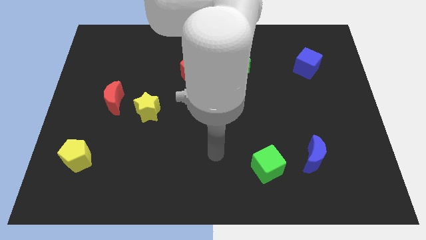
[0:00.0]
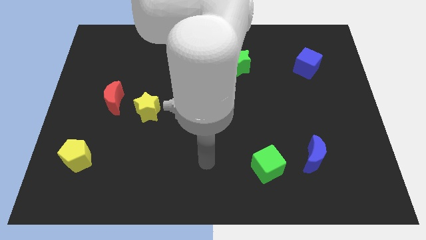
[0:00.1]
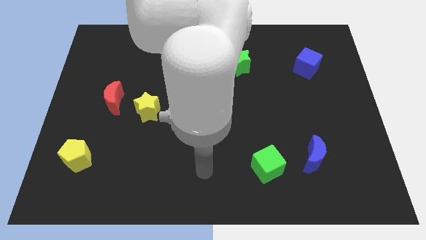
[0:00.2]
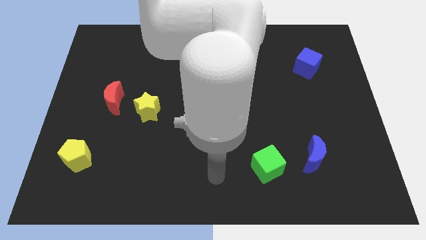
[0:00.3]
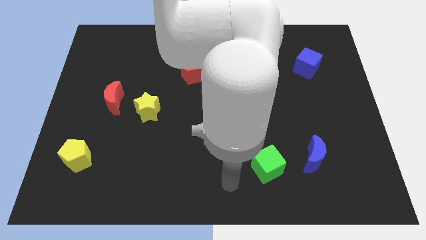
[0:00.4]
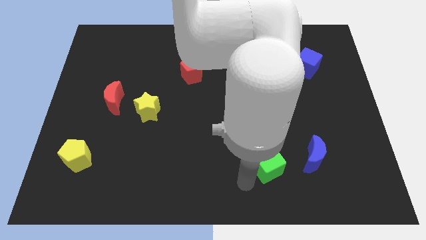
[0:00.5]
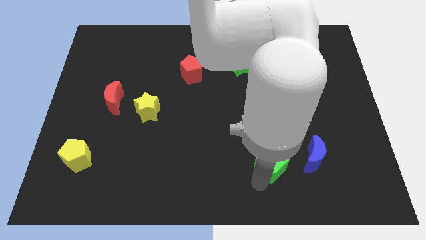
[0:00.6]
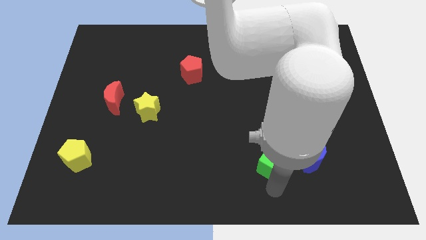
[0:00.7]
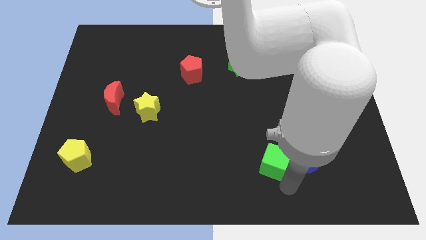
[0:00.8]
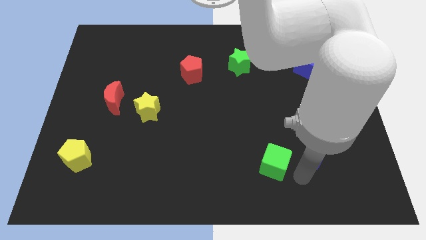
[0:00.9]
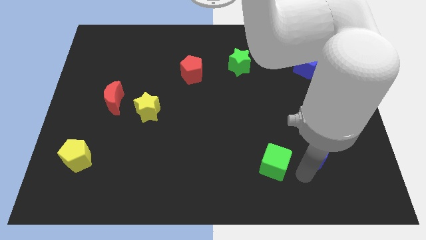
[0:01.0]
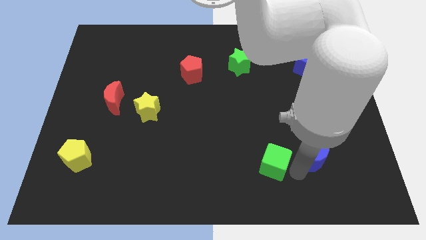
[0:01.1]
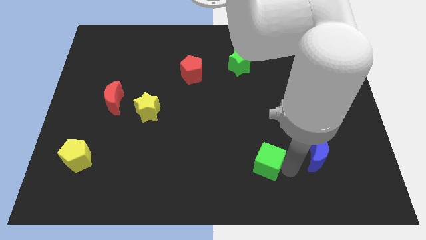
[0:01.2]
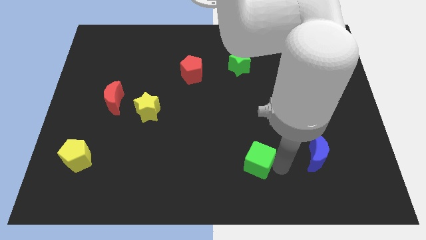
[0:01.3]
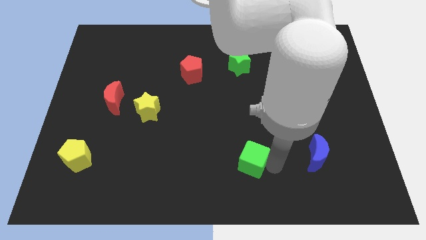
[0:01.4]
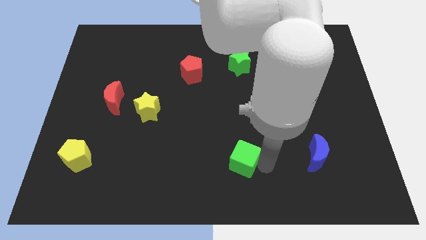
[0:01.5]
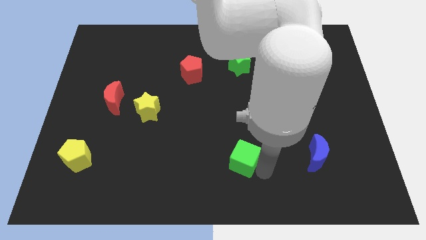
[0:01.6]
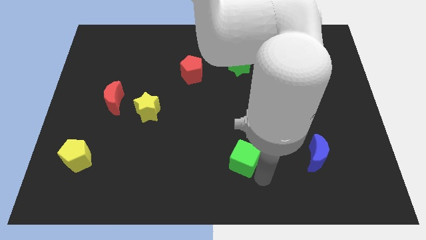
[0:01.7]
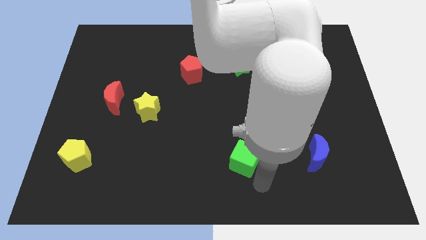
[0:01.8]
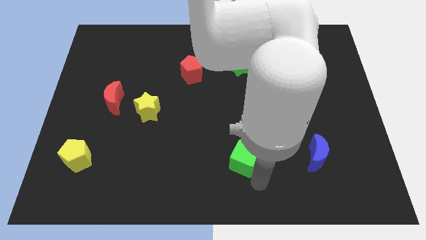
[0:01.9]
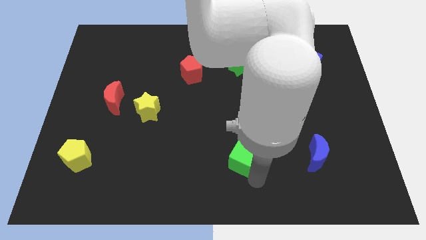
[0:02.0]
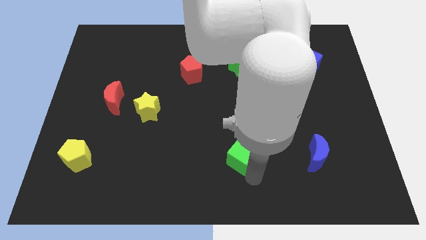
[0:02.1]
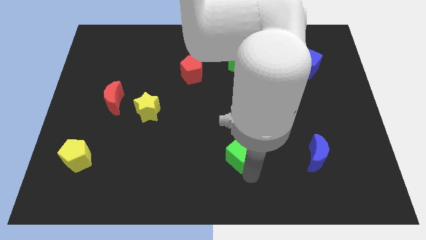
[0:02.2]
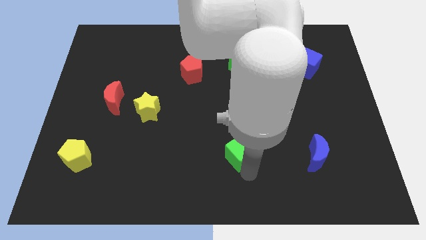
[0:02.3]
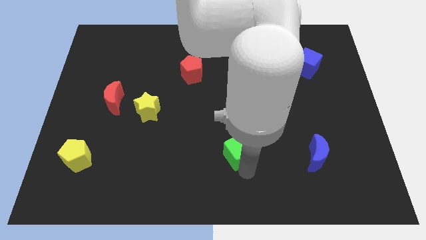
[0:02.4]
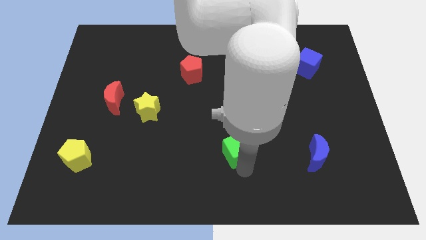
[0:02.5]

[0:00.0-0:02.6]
slide the green cube a little bit diagonally upwards and left

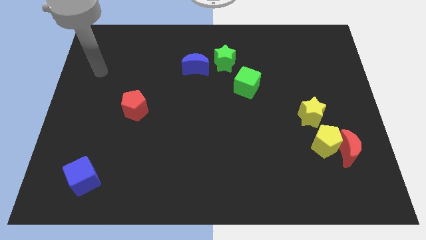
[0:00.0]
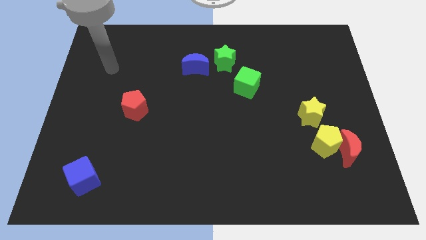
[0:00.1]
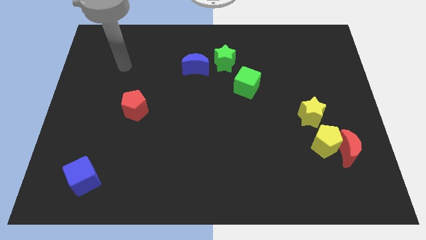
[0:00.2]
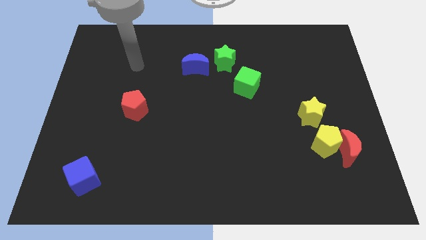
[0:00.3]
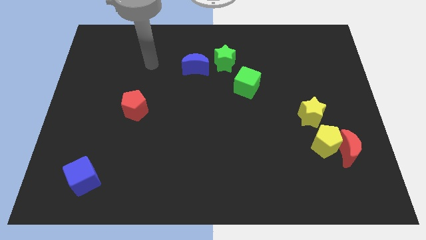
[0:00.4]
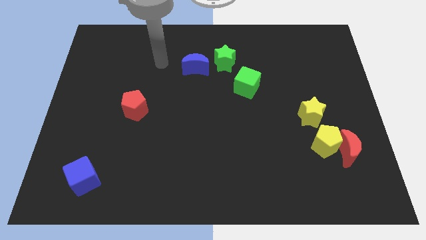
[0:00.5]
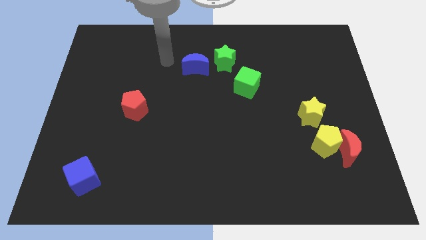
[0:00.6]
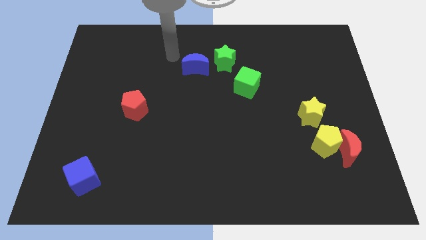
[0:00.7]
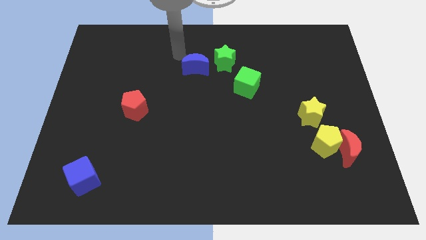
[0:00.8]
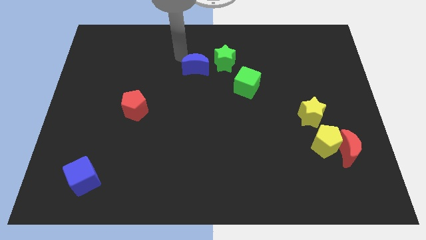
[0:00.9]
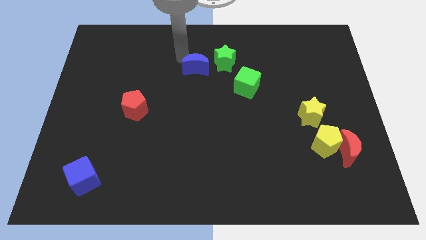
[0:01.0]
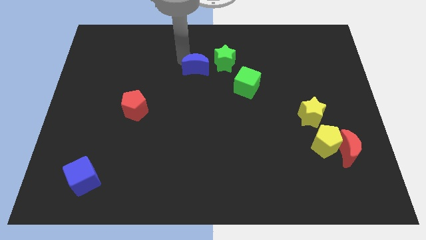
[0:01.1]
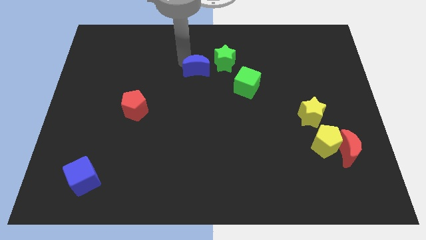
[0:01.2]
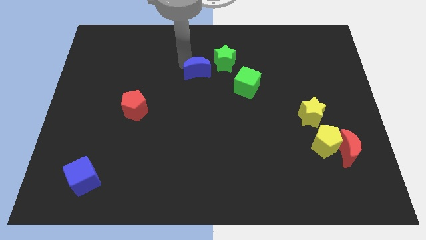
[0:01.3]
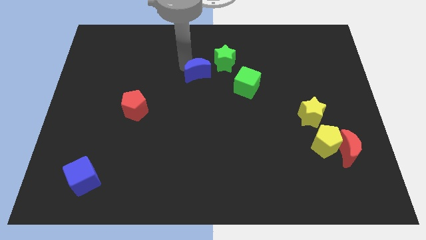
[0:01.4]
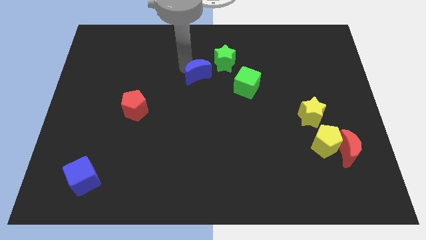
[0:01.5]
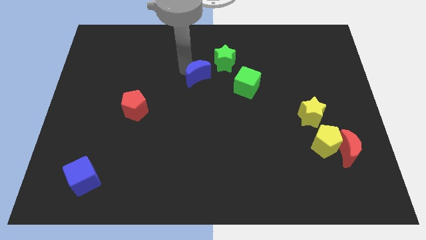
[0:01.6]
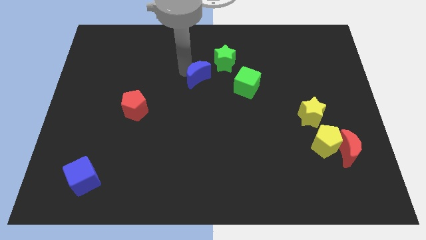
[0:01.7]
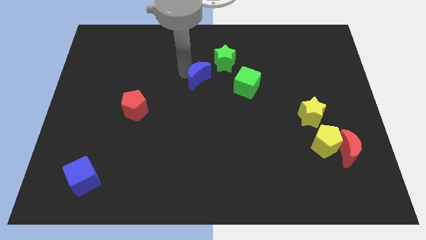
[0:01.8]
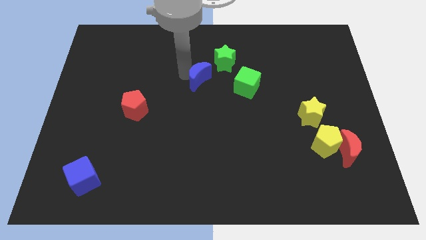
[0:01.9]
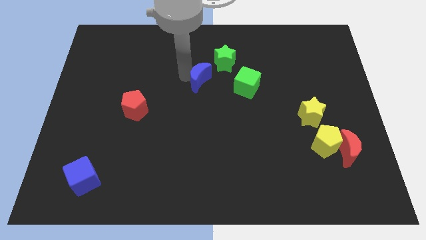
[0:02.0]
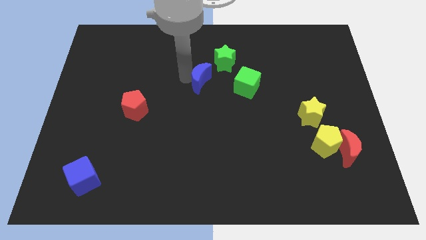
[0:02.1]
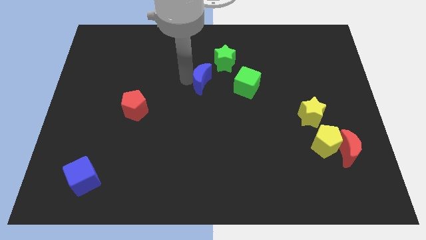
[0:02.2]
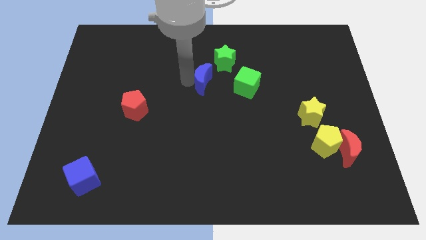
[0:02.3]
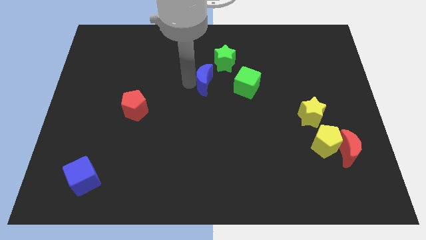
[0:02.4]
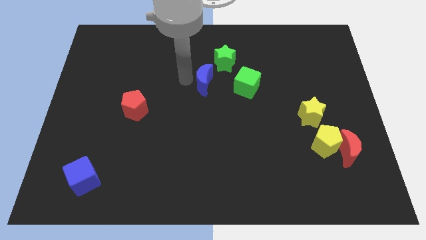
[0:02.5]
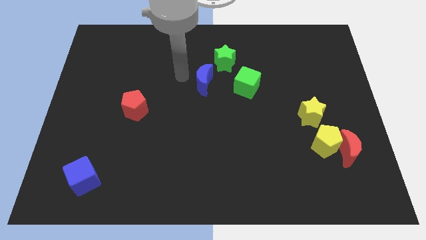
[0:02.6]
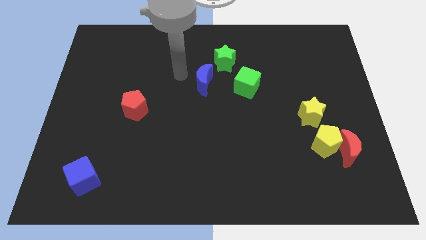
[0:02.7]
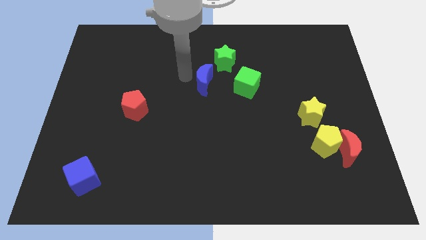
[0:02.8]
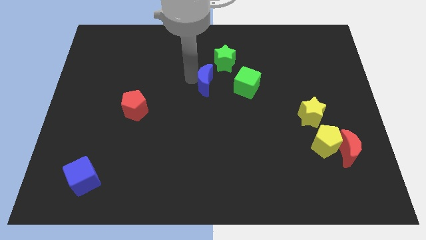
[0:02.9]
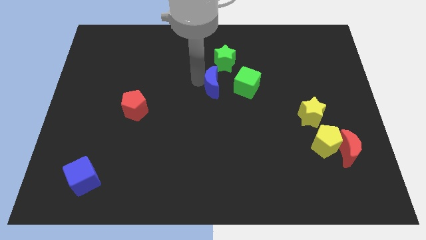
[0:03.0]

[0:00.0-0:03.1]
slightly slide the blue moon downwards and to the right

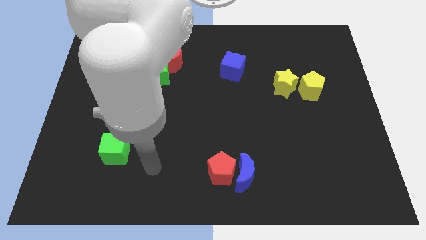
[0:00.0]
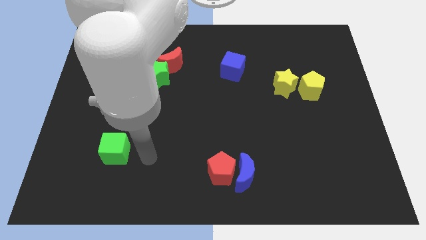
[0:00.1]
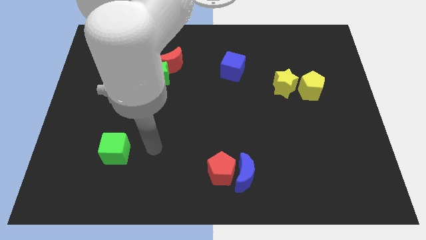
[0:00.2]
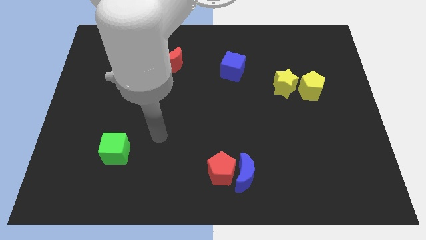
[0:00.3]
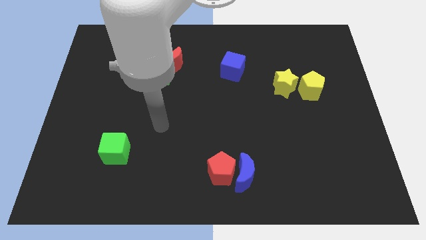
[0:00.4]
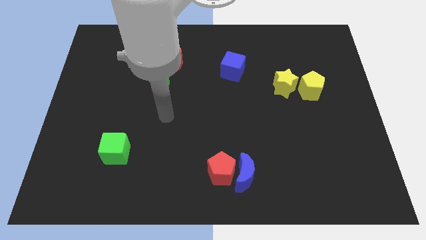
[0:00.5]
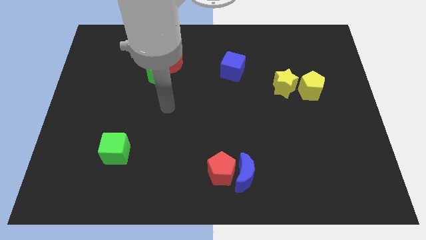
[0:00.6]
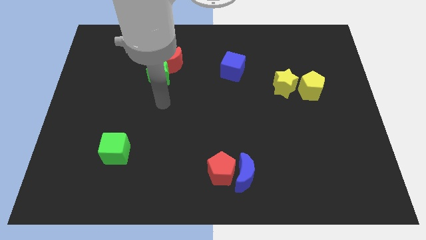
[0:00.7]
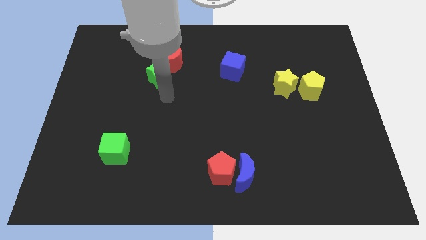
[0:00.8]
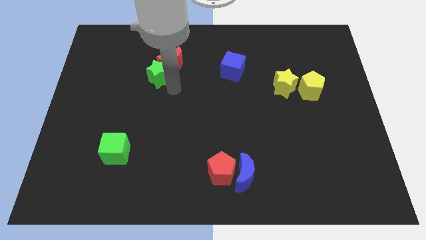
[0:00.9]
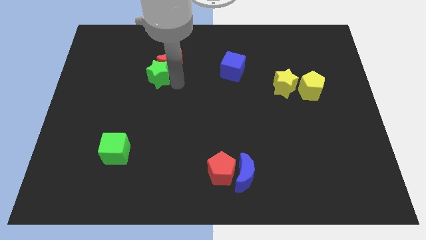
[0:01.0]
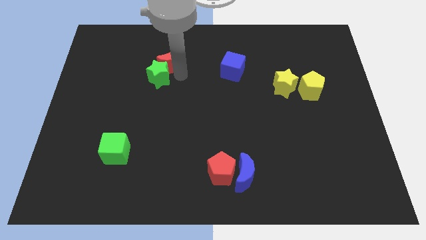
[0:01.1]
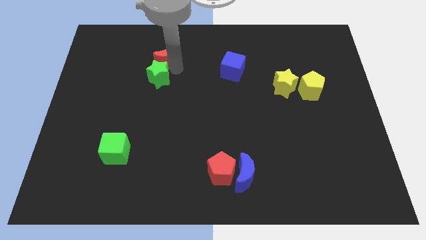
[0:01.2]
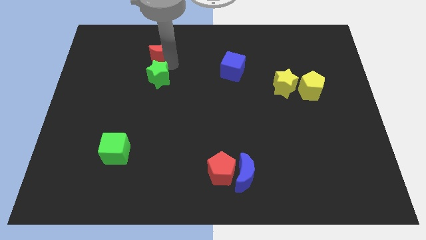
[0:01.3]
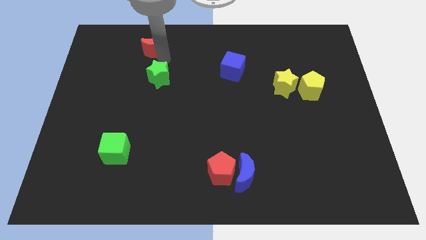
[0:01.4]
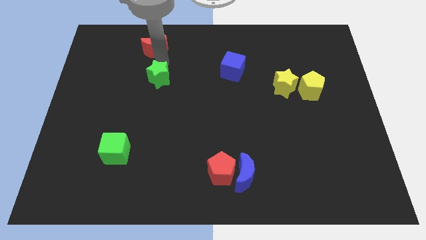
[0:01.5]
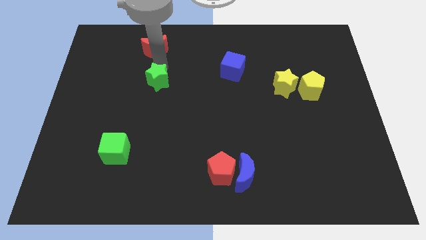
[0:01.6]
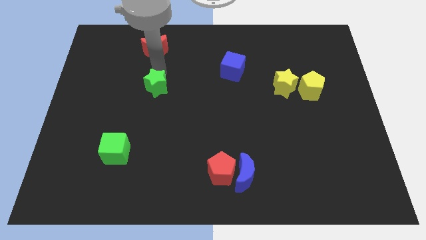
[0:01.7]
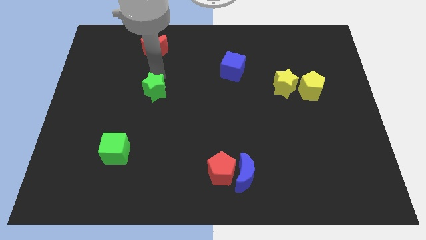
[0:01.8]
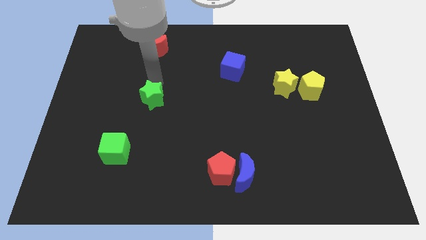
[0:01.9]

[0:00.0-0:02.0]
move the green star a little bit downwards

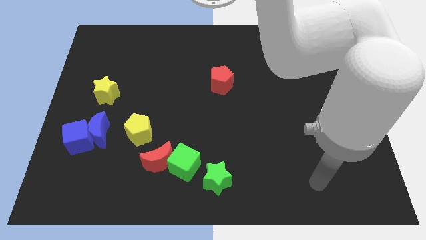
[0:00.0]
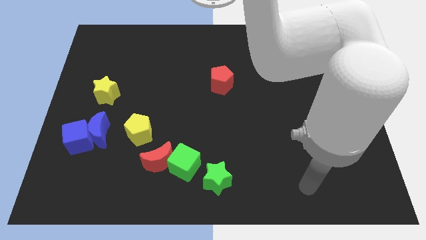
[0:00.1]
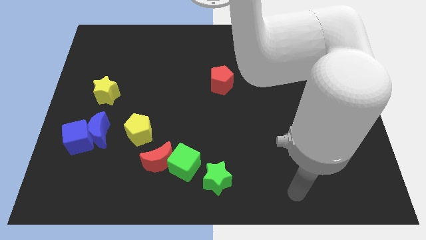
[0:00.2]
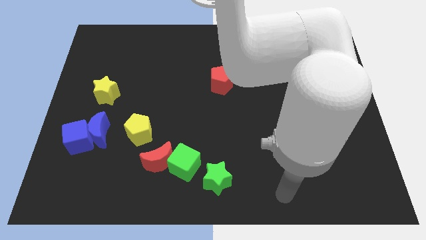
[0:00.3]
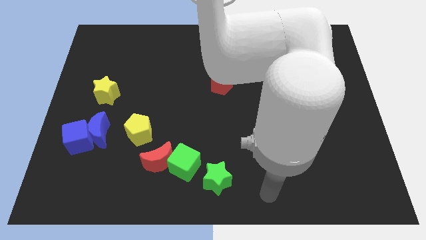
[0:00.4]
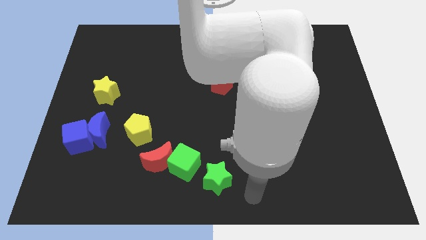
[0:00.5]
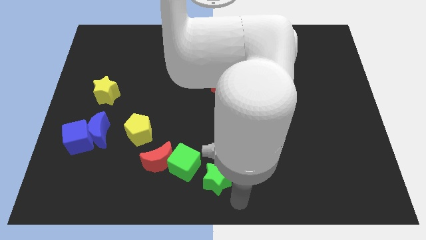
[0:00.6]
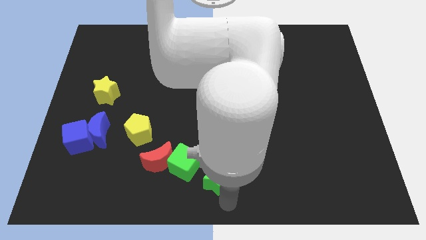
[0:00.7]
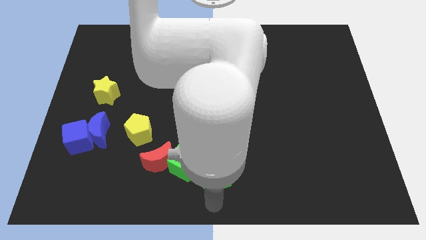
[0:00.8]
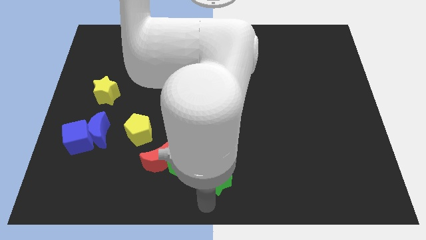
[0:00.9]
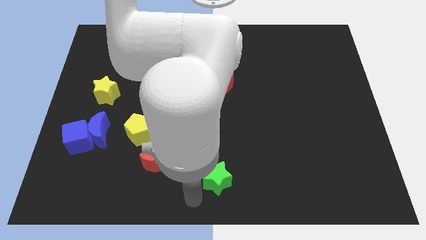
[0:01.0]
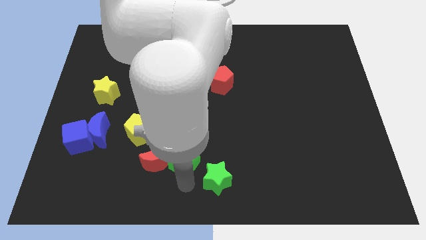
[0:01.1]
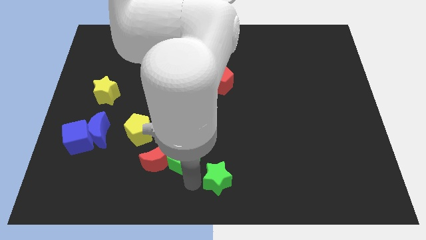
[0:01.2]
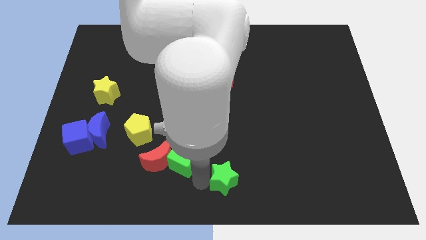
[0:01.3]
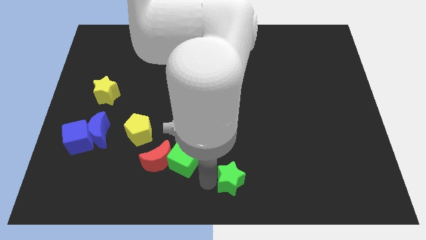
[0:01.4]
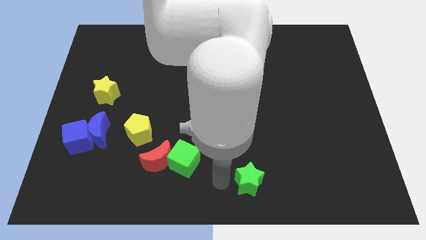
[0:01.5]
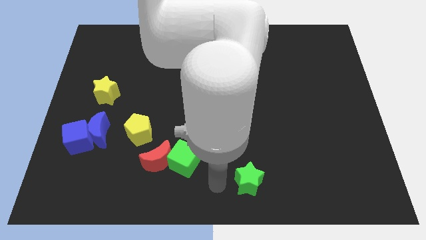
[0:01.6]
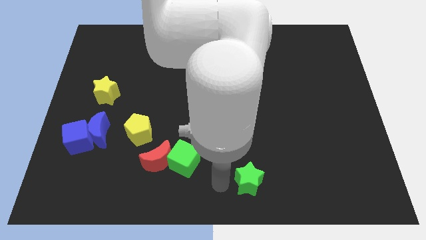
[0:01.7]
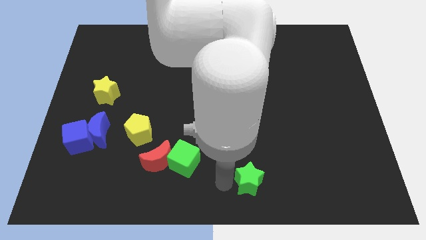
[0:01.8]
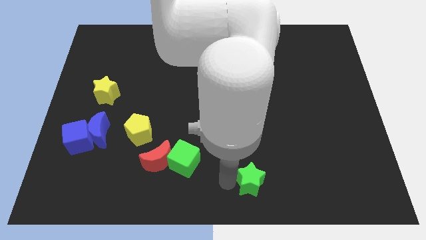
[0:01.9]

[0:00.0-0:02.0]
push the green star right a bit
